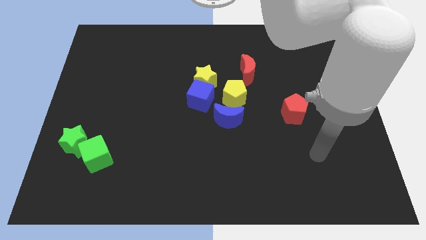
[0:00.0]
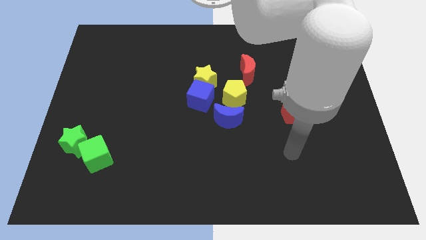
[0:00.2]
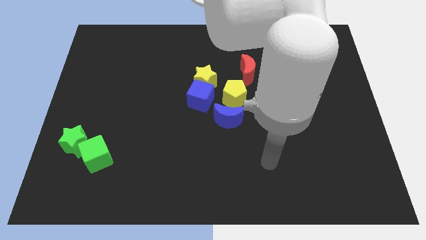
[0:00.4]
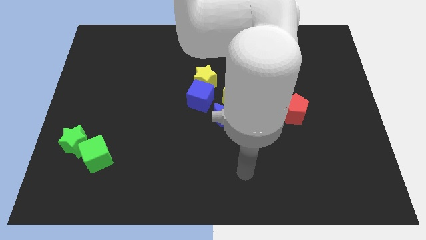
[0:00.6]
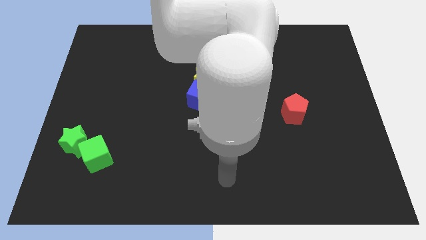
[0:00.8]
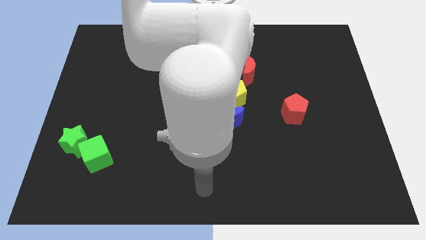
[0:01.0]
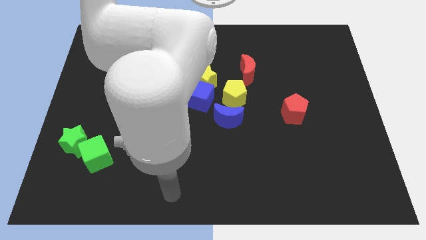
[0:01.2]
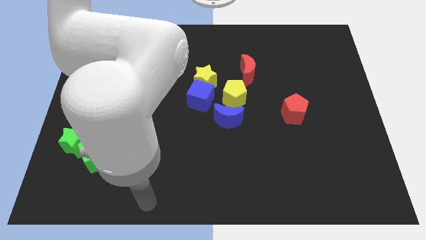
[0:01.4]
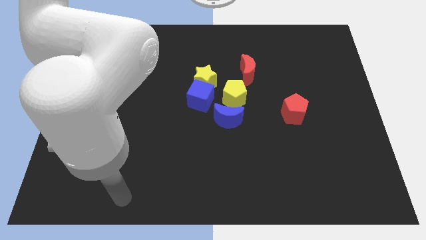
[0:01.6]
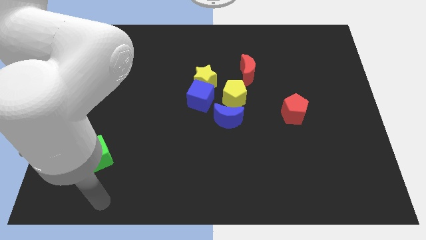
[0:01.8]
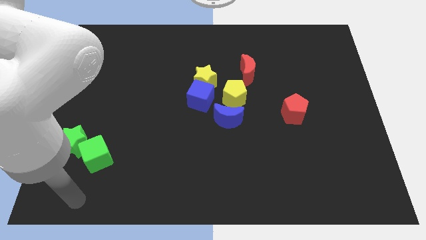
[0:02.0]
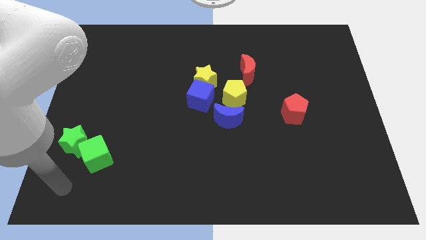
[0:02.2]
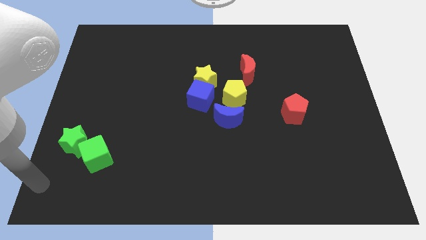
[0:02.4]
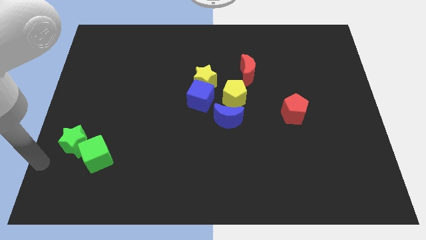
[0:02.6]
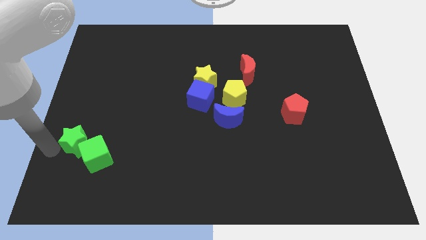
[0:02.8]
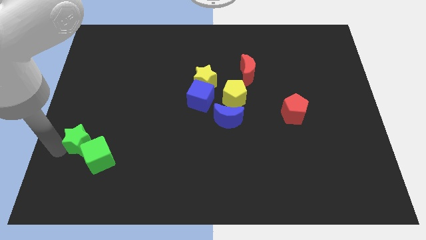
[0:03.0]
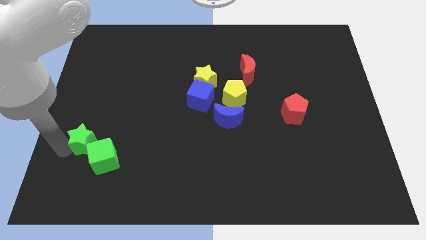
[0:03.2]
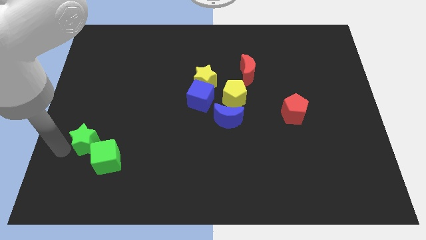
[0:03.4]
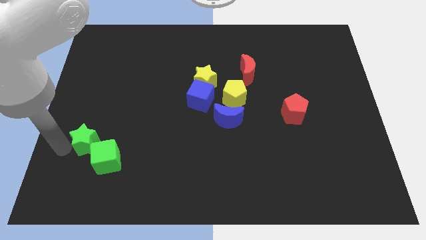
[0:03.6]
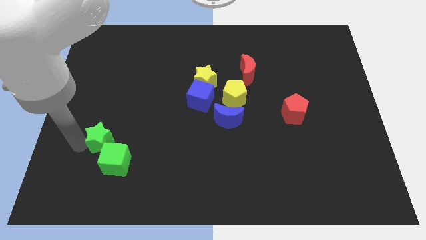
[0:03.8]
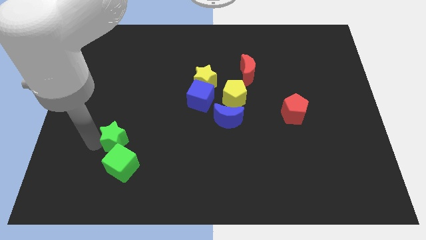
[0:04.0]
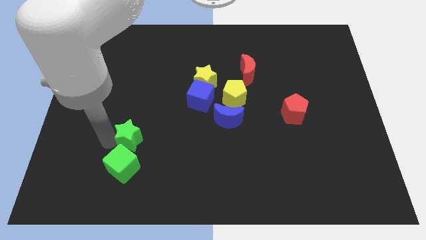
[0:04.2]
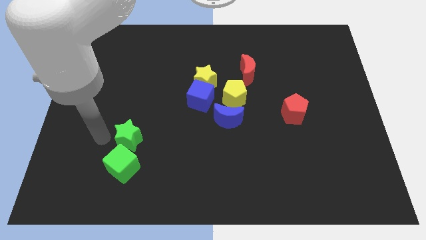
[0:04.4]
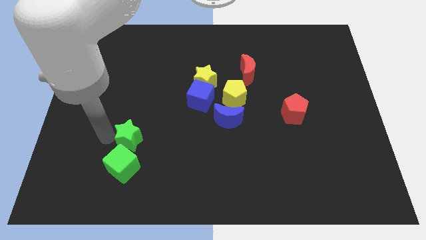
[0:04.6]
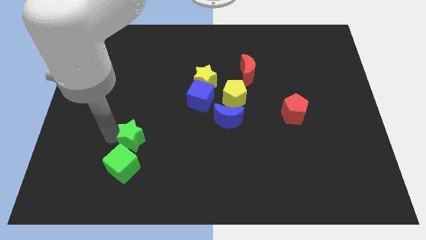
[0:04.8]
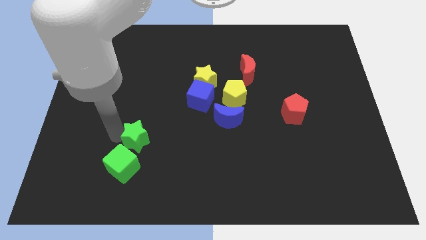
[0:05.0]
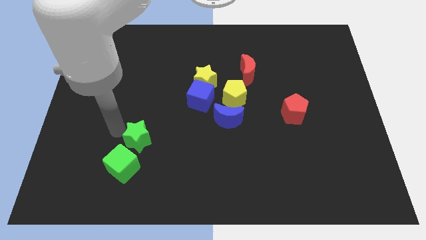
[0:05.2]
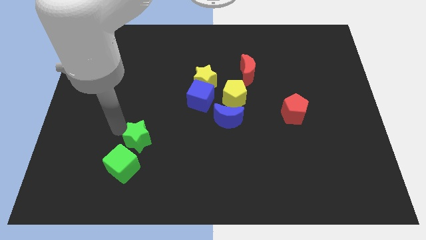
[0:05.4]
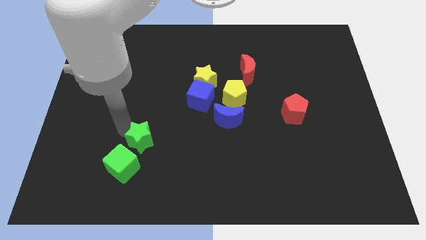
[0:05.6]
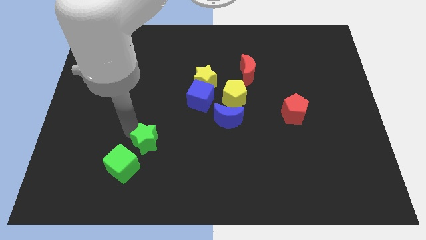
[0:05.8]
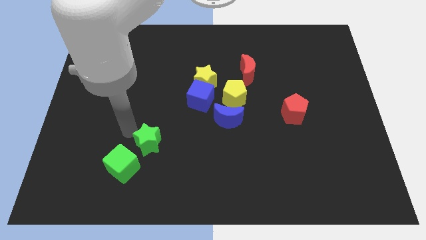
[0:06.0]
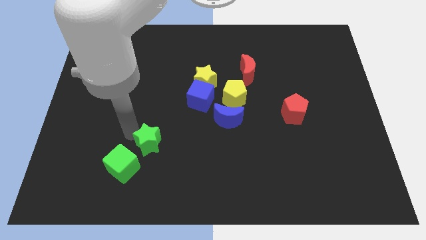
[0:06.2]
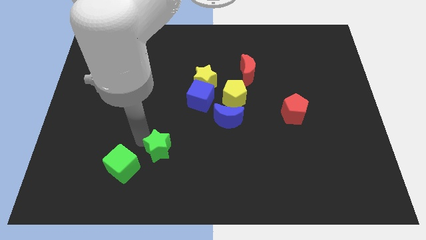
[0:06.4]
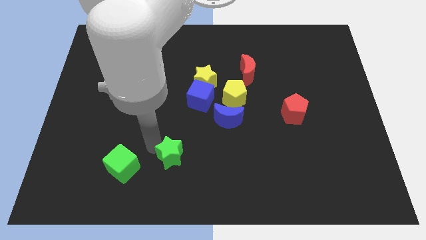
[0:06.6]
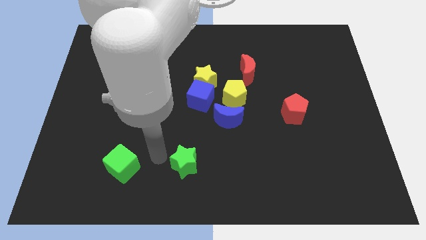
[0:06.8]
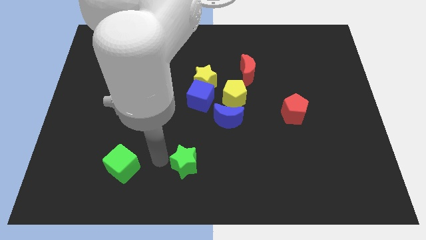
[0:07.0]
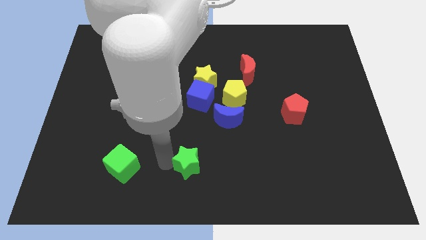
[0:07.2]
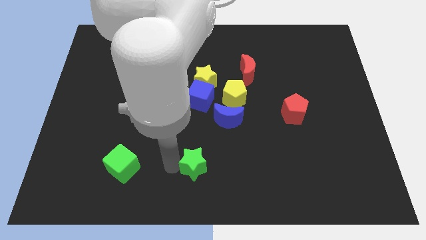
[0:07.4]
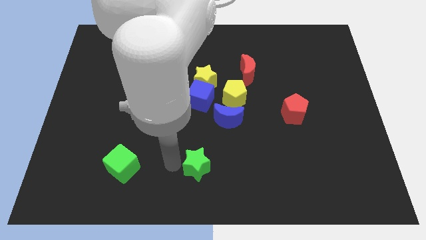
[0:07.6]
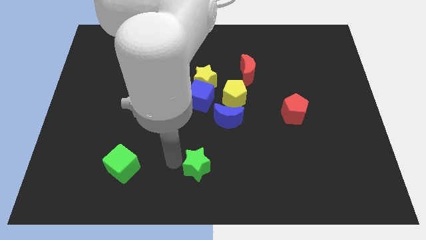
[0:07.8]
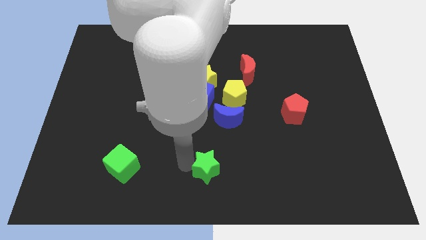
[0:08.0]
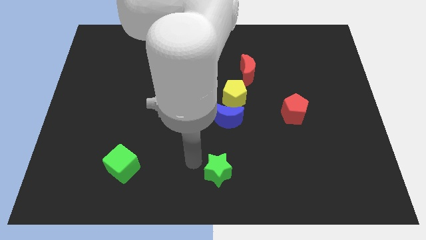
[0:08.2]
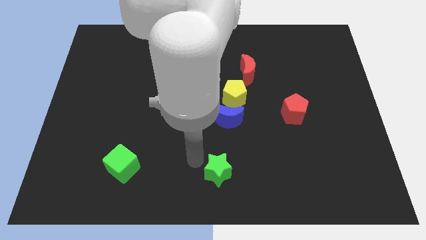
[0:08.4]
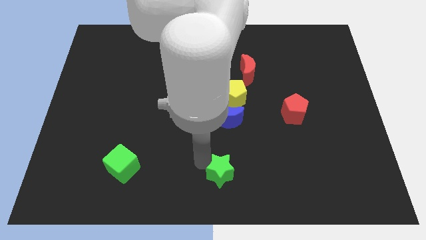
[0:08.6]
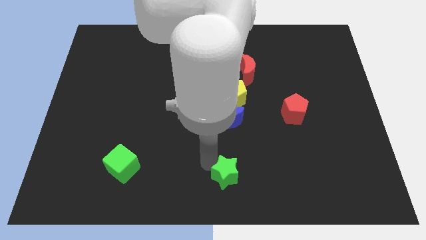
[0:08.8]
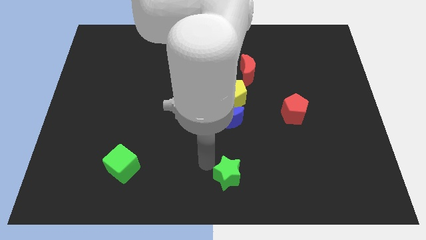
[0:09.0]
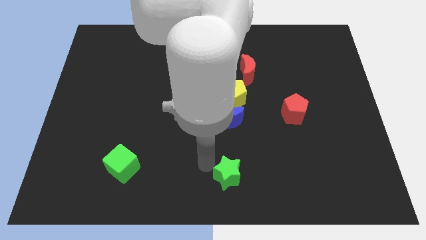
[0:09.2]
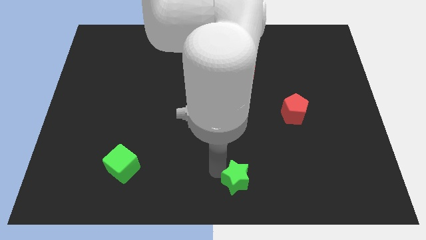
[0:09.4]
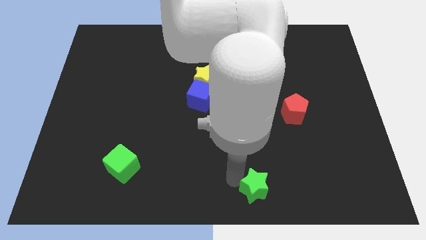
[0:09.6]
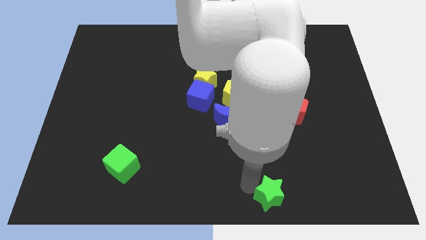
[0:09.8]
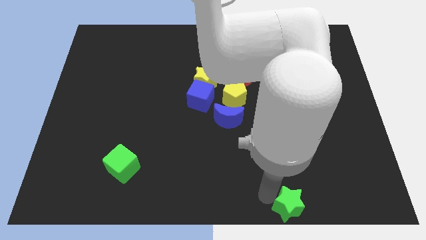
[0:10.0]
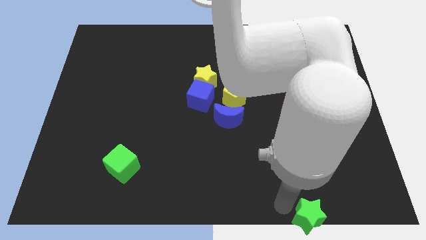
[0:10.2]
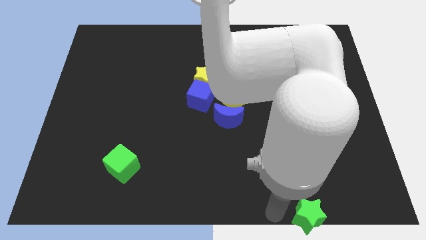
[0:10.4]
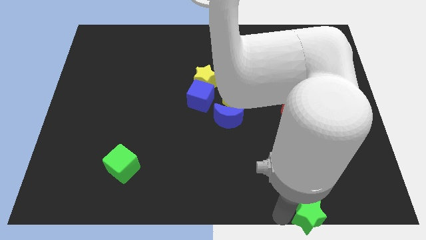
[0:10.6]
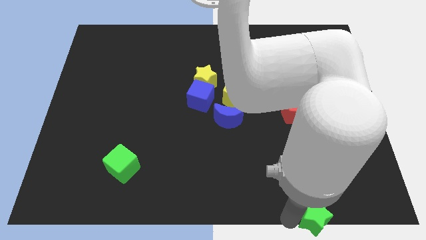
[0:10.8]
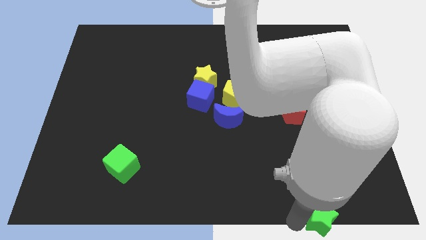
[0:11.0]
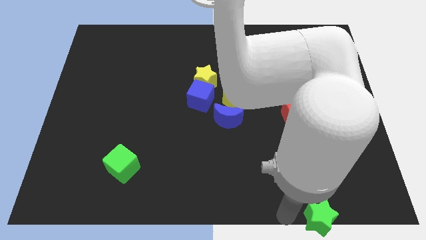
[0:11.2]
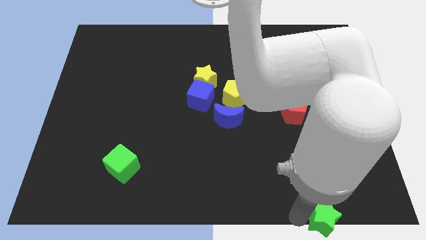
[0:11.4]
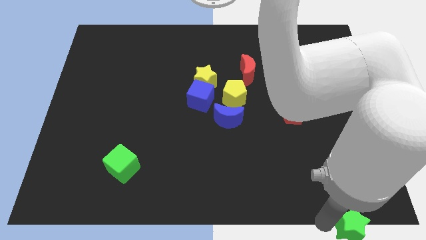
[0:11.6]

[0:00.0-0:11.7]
slide the green star to the bottom right corner

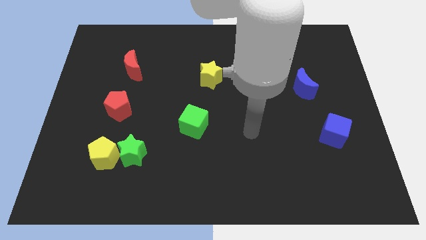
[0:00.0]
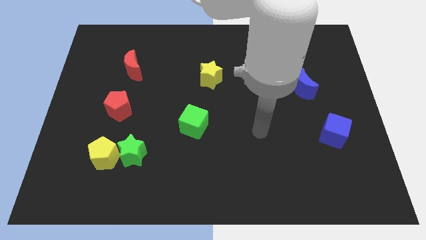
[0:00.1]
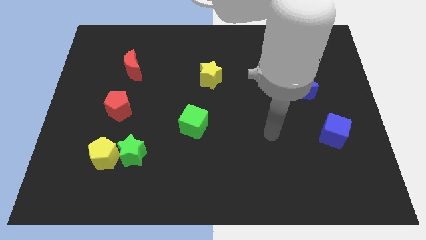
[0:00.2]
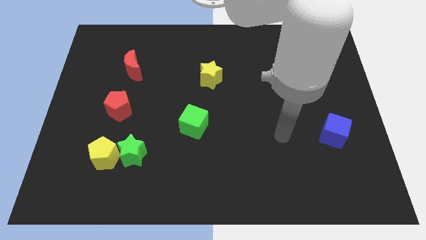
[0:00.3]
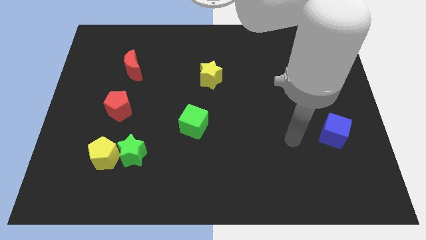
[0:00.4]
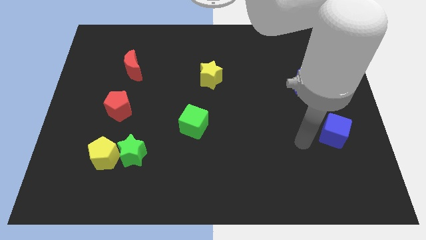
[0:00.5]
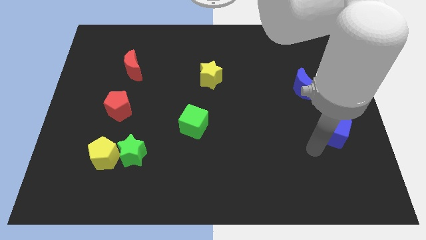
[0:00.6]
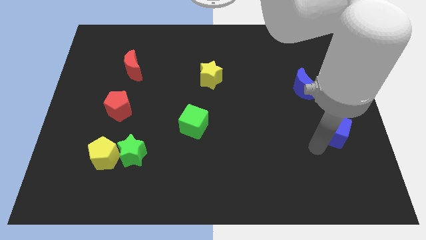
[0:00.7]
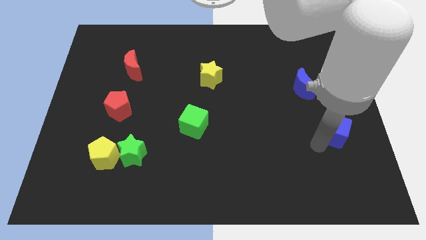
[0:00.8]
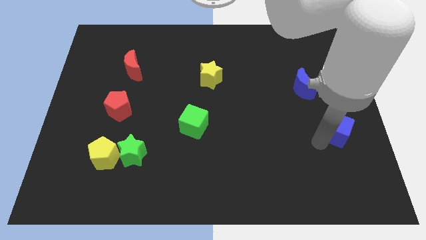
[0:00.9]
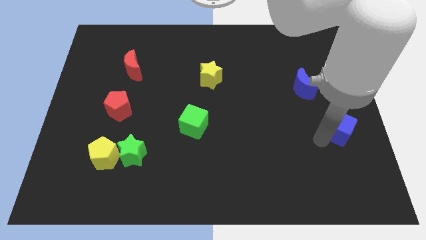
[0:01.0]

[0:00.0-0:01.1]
move the blue cube to the right side
